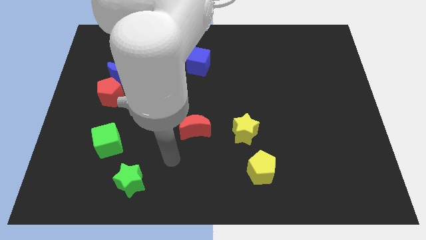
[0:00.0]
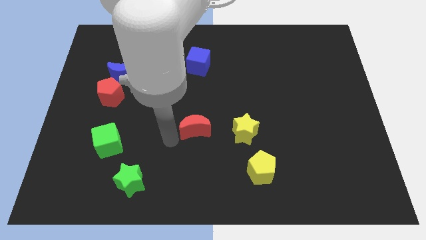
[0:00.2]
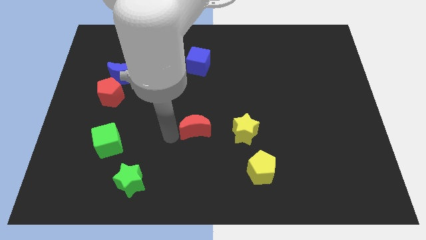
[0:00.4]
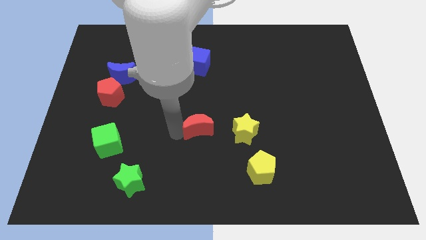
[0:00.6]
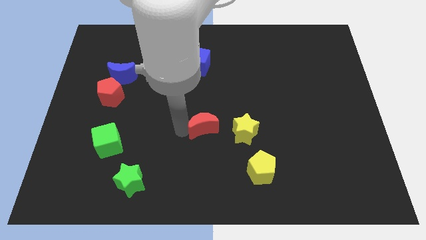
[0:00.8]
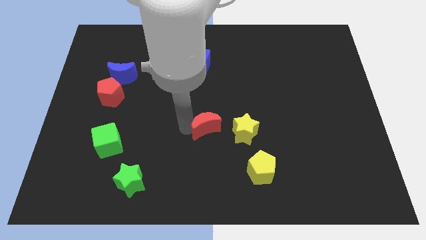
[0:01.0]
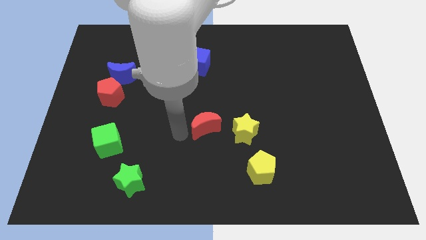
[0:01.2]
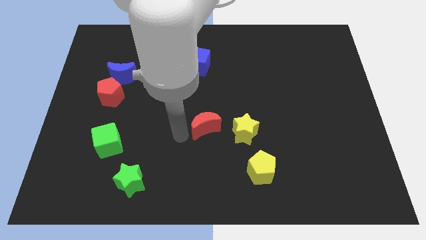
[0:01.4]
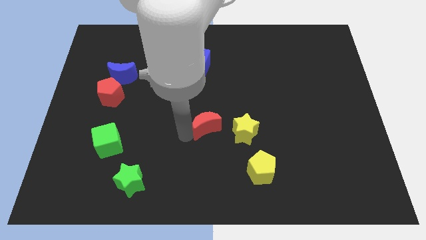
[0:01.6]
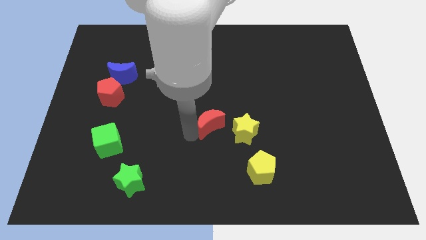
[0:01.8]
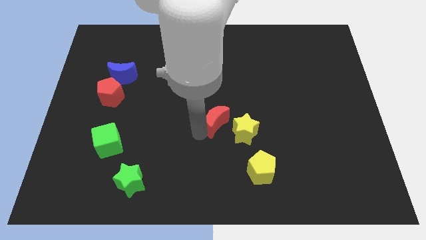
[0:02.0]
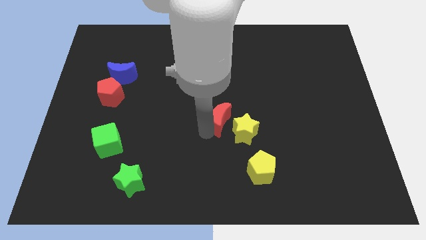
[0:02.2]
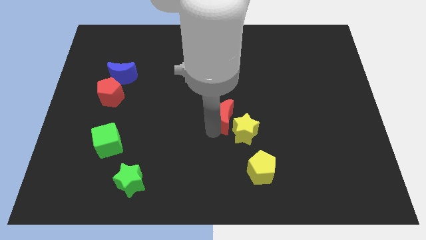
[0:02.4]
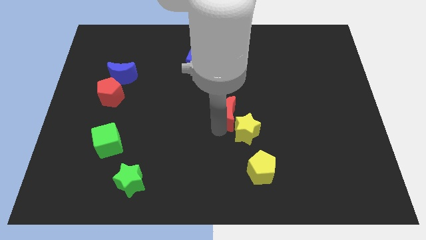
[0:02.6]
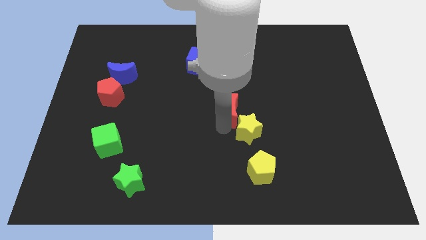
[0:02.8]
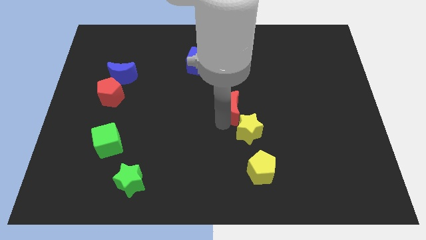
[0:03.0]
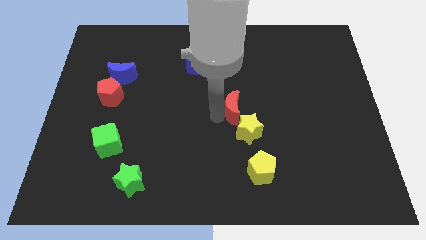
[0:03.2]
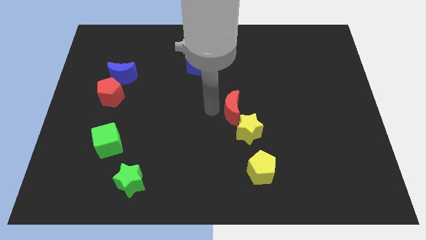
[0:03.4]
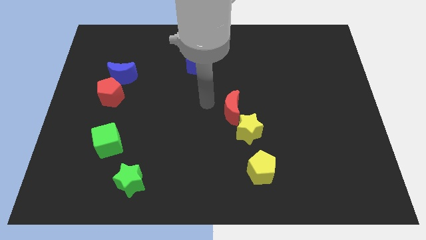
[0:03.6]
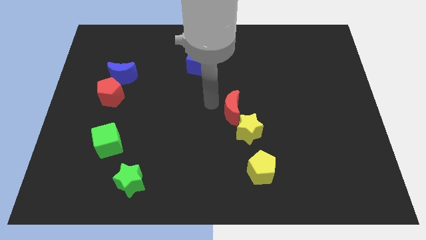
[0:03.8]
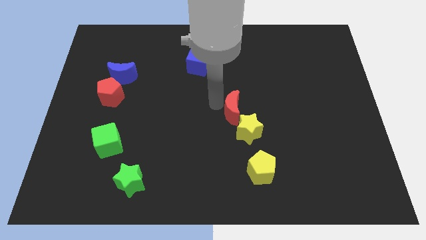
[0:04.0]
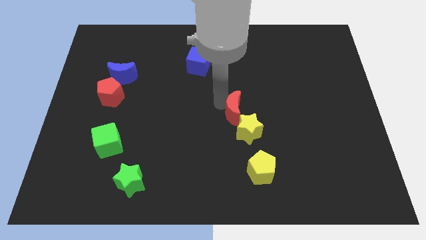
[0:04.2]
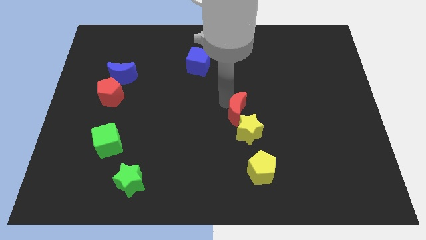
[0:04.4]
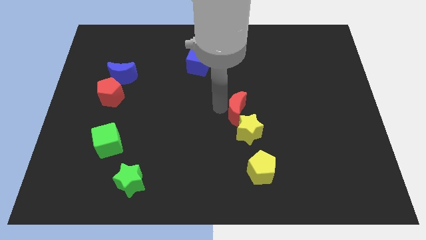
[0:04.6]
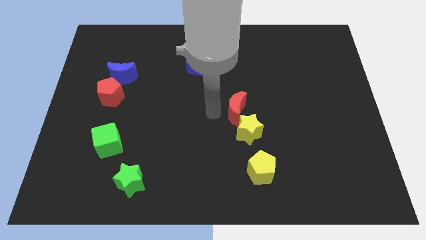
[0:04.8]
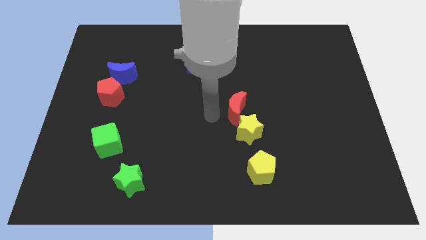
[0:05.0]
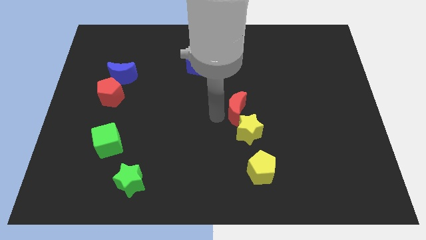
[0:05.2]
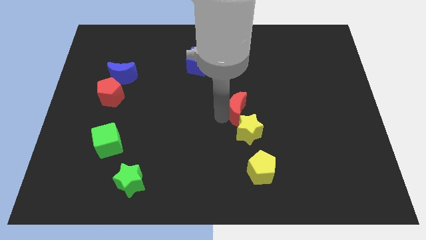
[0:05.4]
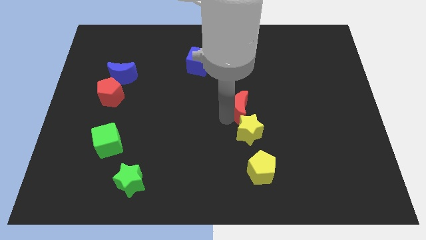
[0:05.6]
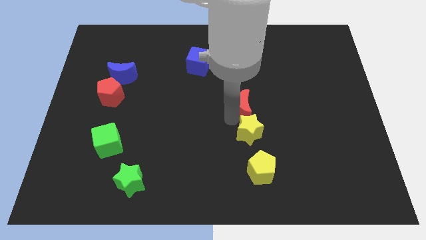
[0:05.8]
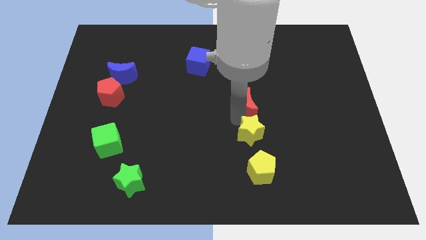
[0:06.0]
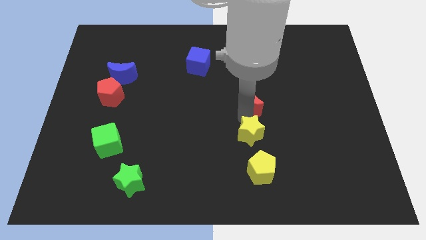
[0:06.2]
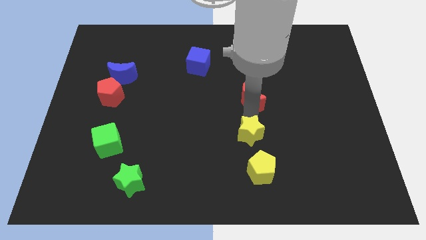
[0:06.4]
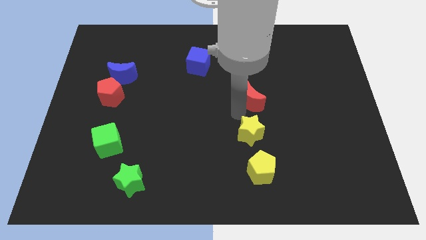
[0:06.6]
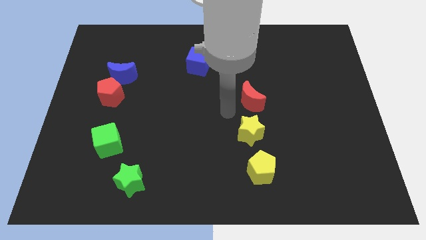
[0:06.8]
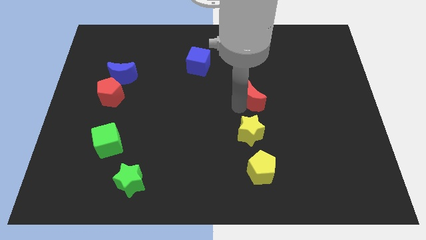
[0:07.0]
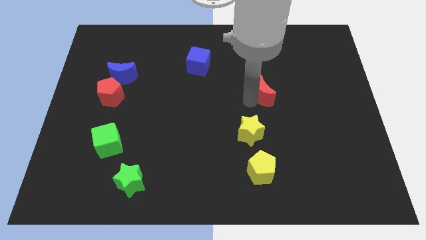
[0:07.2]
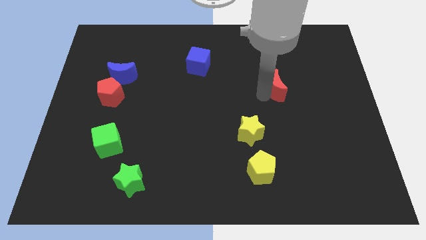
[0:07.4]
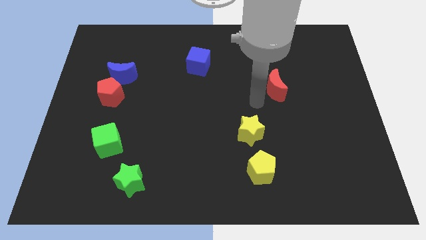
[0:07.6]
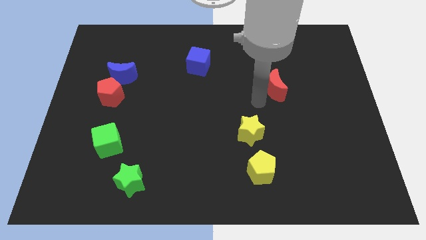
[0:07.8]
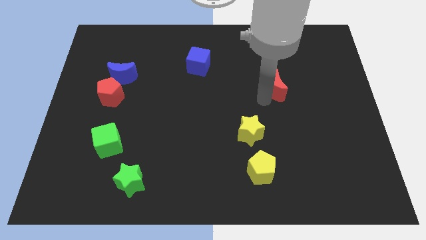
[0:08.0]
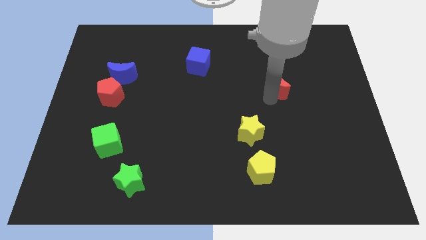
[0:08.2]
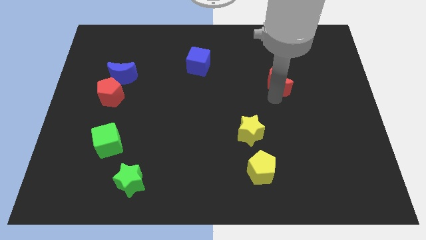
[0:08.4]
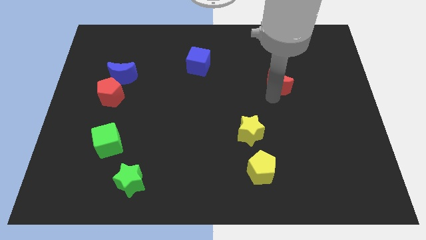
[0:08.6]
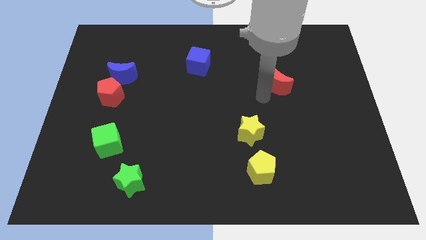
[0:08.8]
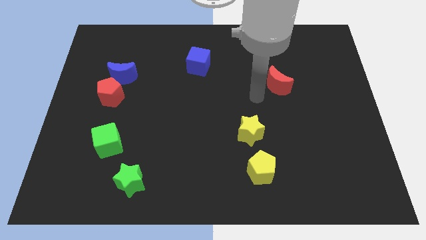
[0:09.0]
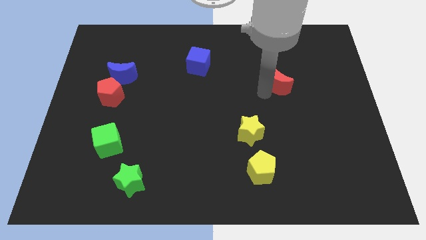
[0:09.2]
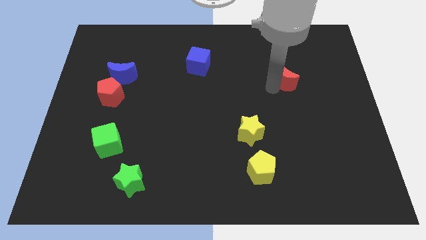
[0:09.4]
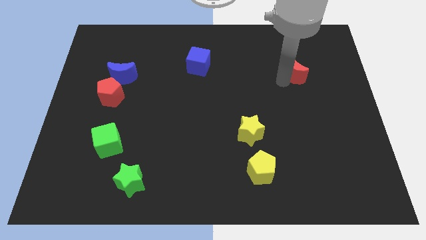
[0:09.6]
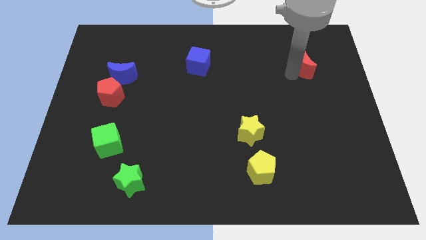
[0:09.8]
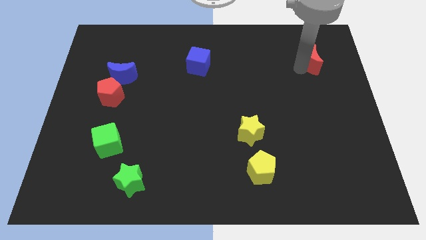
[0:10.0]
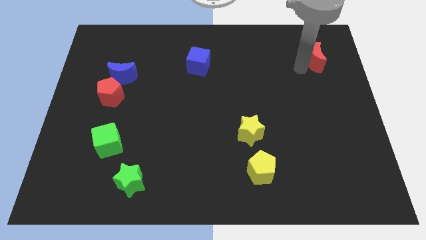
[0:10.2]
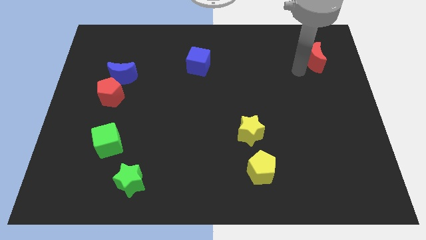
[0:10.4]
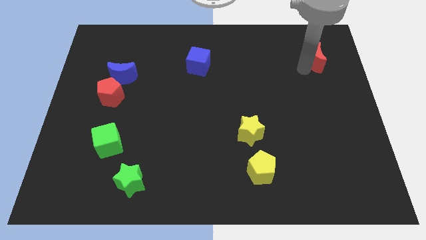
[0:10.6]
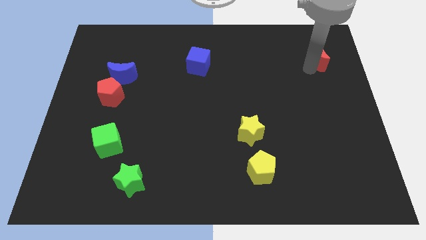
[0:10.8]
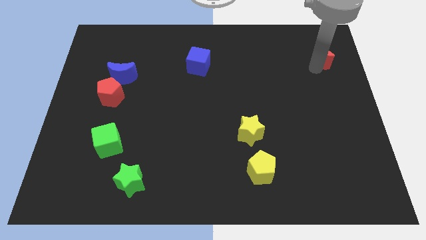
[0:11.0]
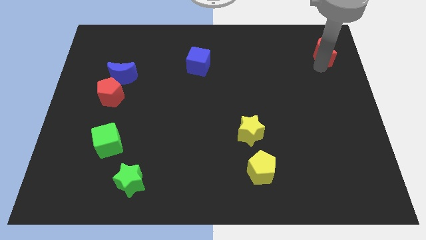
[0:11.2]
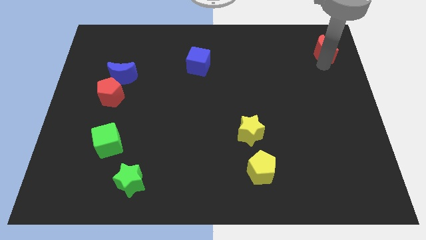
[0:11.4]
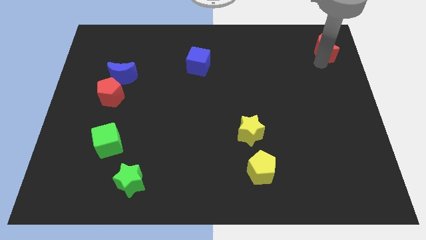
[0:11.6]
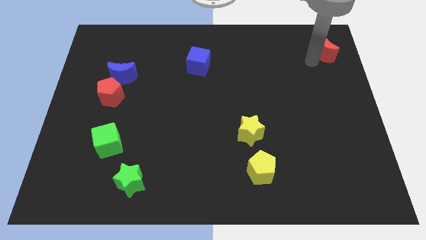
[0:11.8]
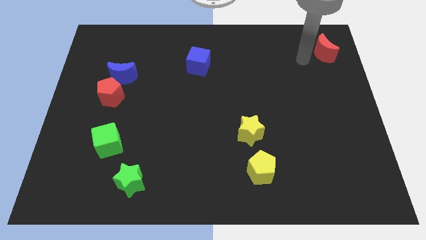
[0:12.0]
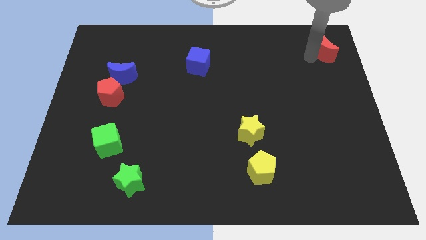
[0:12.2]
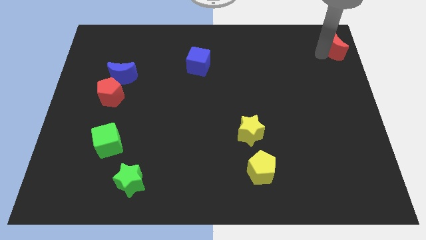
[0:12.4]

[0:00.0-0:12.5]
put the red moon to the top right

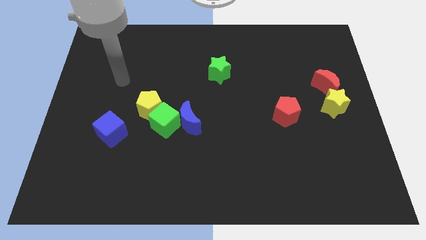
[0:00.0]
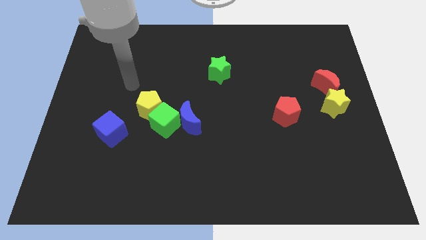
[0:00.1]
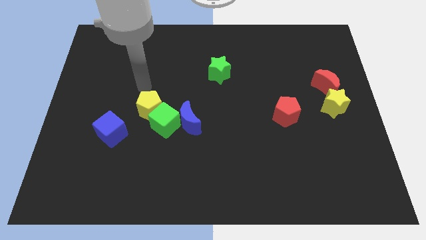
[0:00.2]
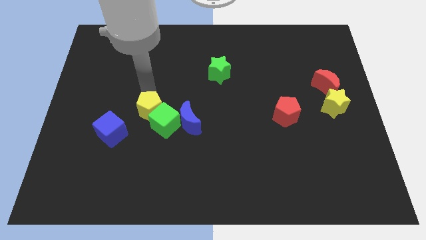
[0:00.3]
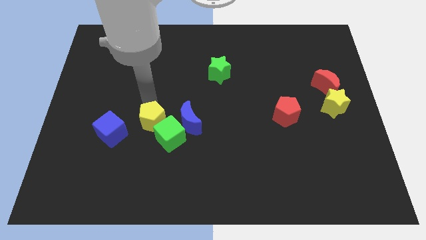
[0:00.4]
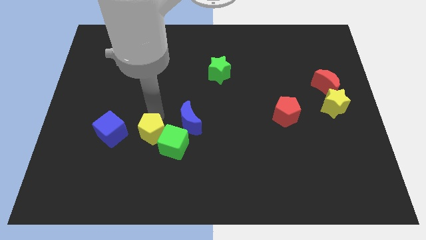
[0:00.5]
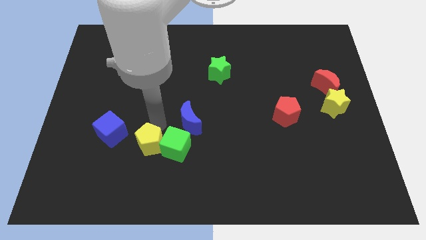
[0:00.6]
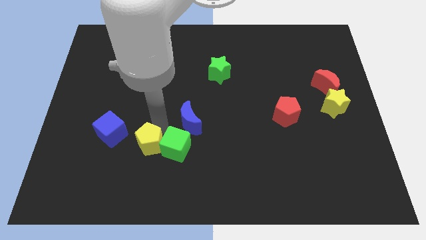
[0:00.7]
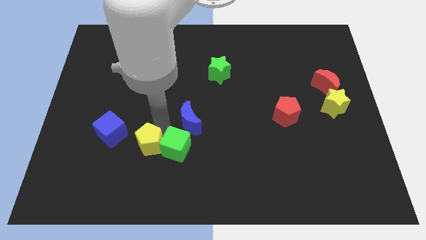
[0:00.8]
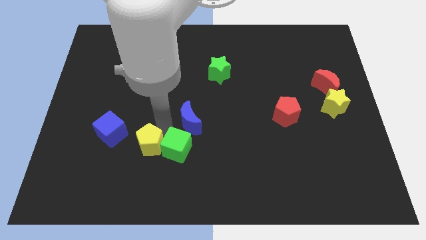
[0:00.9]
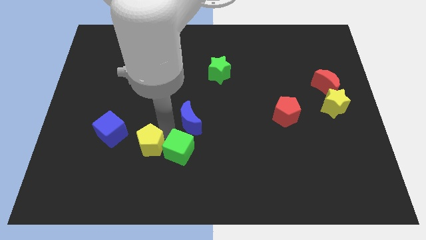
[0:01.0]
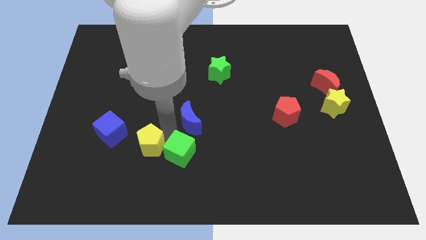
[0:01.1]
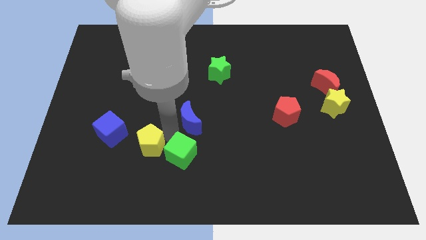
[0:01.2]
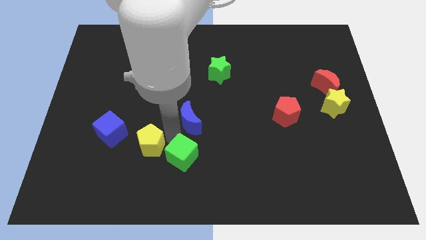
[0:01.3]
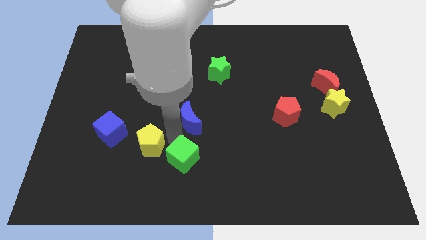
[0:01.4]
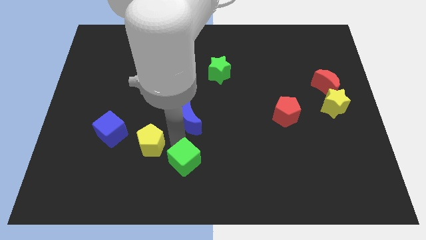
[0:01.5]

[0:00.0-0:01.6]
move the green cube to the bottom
